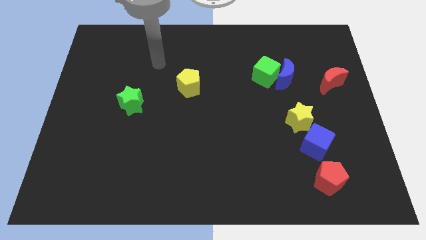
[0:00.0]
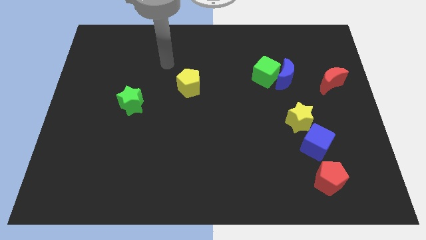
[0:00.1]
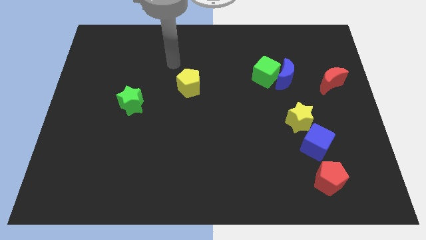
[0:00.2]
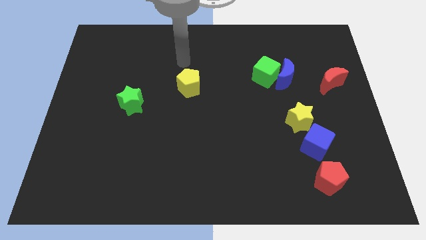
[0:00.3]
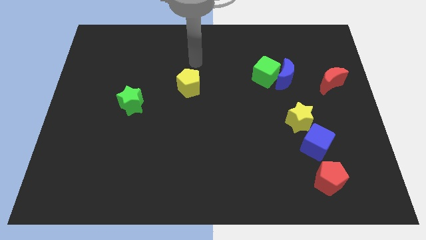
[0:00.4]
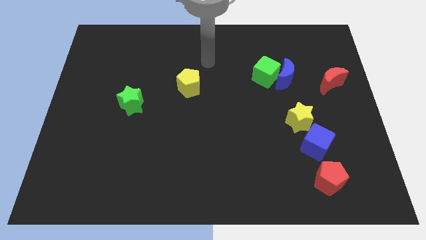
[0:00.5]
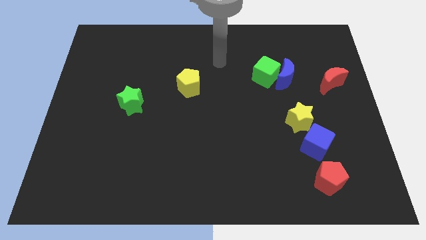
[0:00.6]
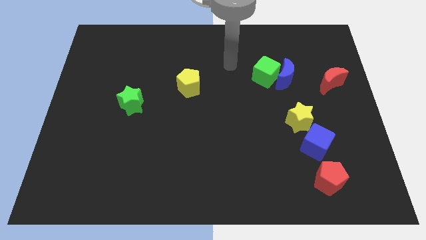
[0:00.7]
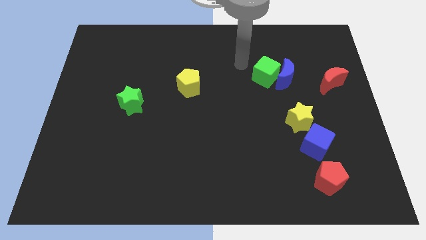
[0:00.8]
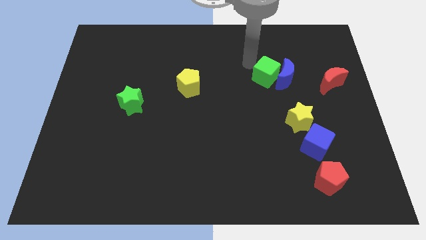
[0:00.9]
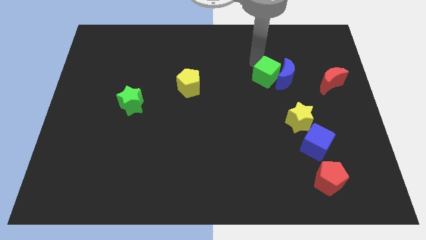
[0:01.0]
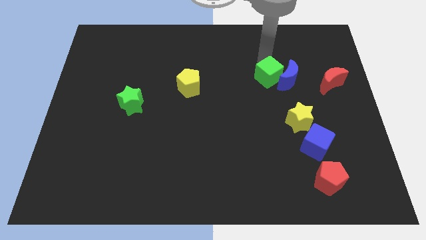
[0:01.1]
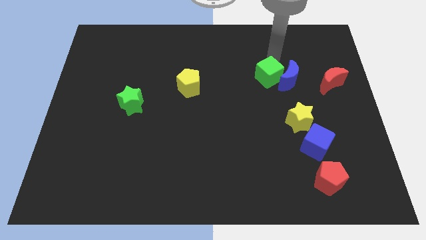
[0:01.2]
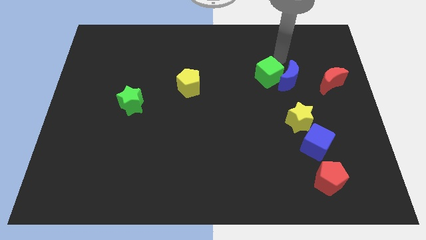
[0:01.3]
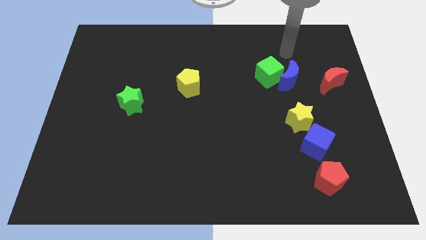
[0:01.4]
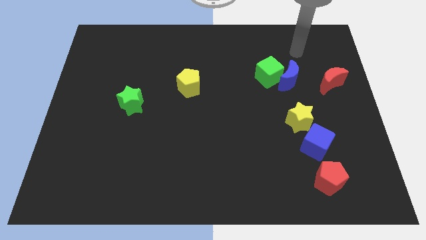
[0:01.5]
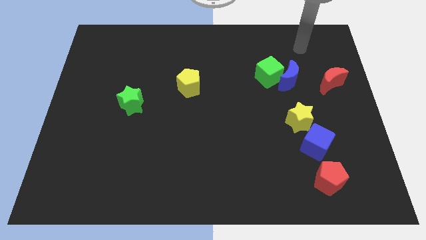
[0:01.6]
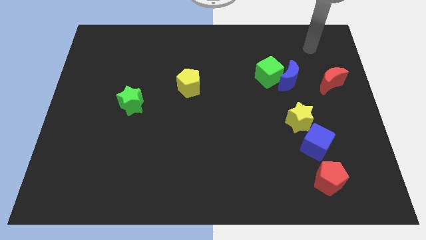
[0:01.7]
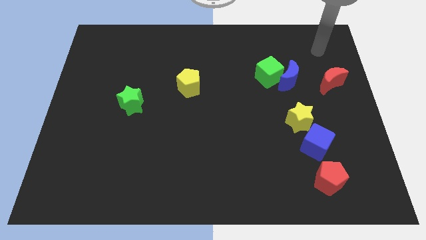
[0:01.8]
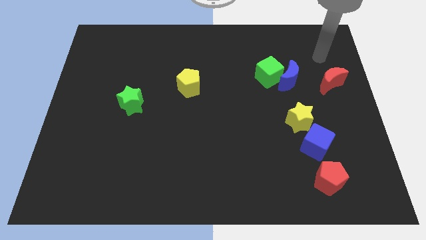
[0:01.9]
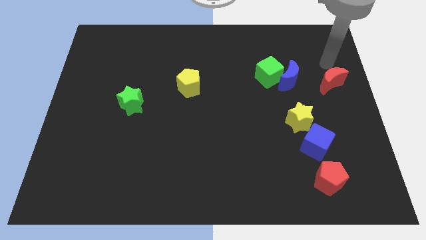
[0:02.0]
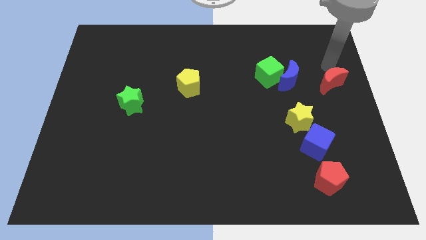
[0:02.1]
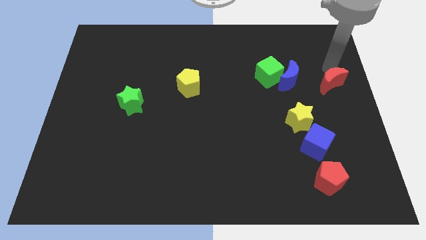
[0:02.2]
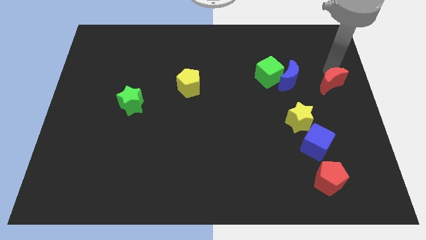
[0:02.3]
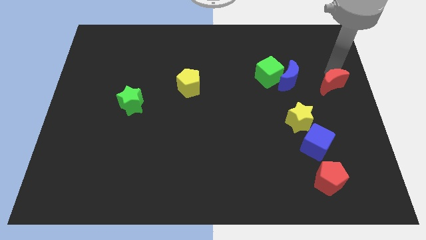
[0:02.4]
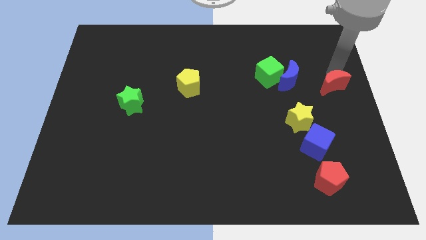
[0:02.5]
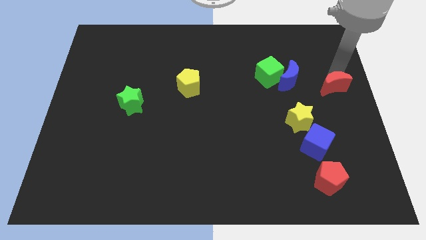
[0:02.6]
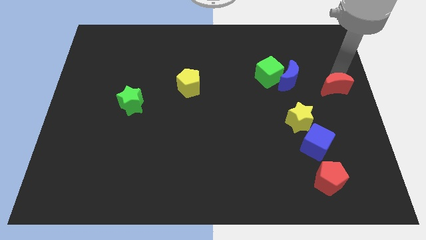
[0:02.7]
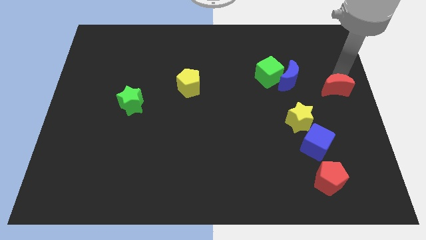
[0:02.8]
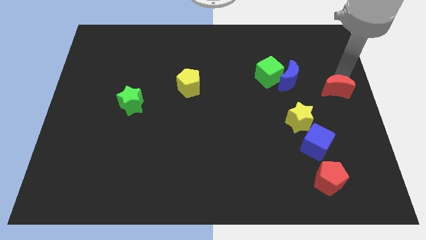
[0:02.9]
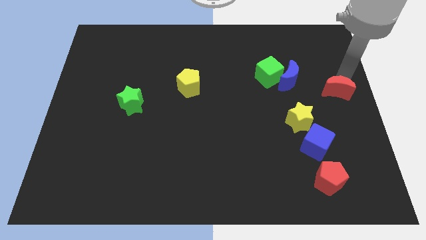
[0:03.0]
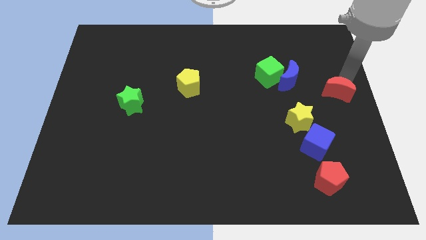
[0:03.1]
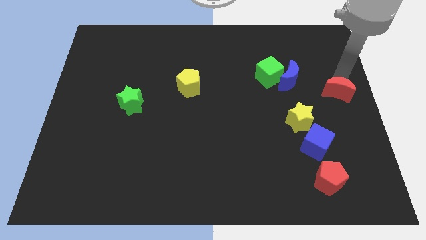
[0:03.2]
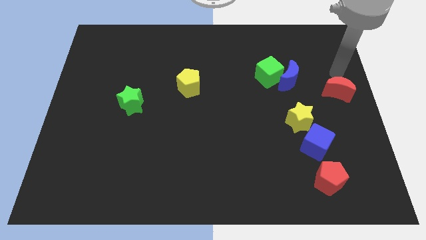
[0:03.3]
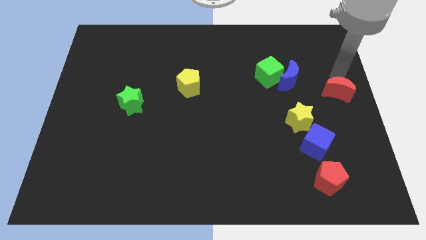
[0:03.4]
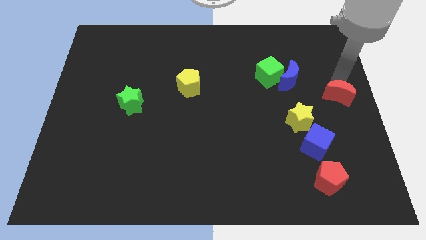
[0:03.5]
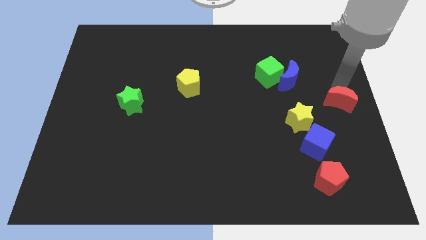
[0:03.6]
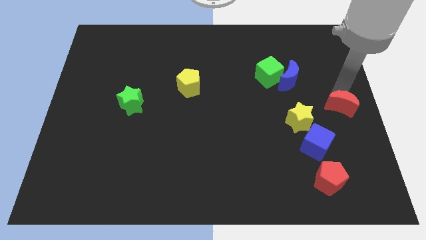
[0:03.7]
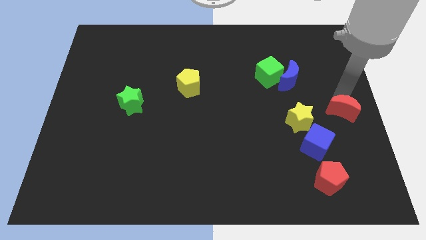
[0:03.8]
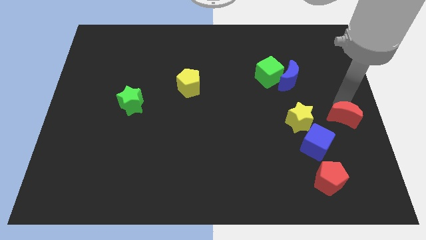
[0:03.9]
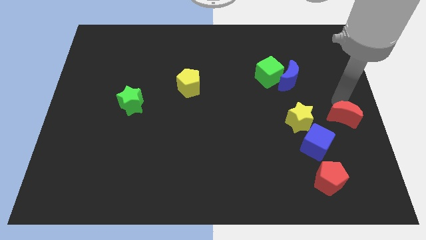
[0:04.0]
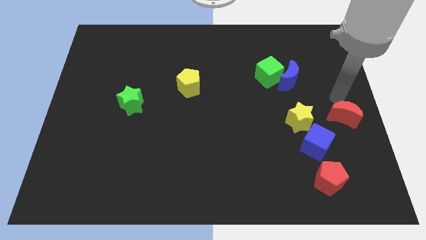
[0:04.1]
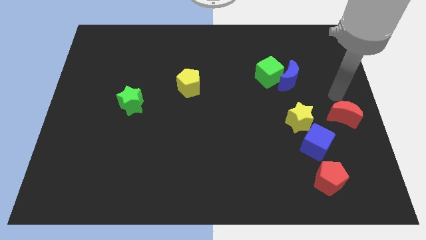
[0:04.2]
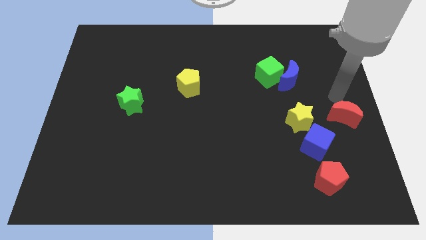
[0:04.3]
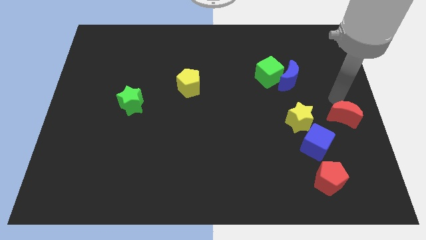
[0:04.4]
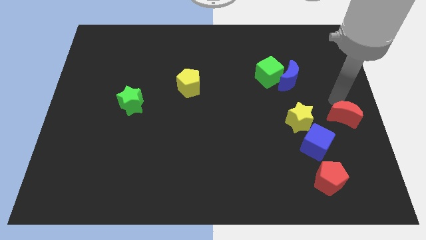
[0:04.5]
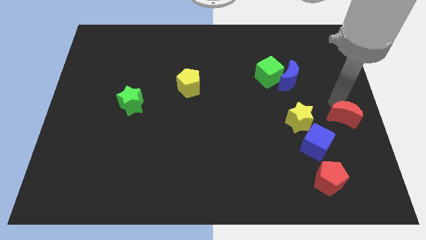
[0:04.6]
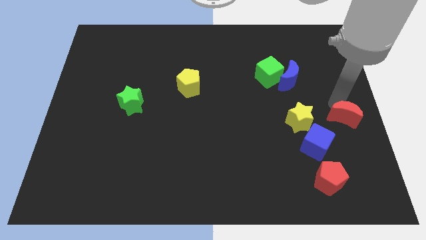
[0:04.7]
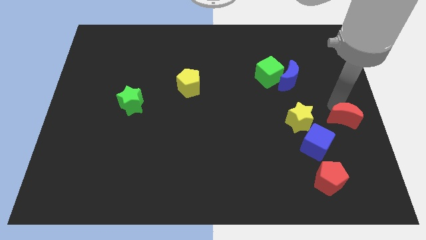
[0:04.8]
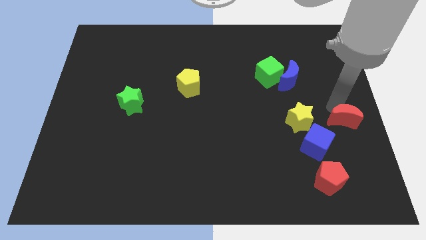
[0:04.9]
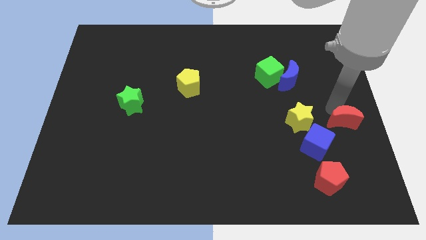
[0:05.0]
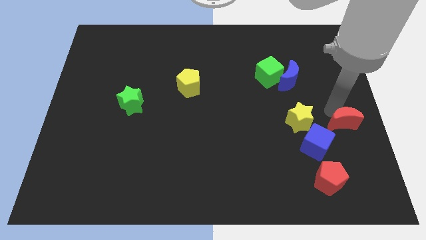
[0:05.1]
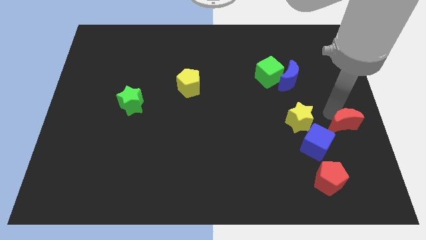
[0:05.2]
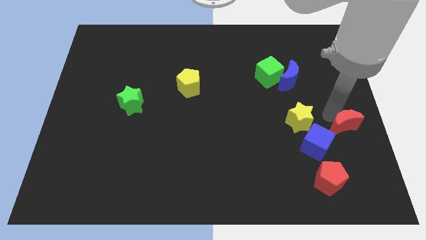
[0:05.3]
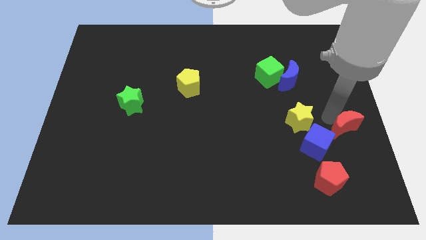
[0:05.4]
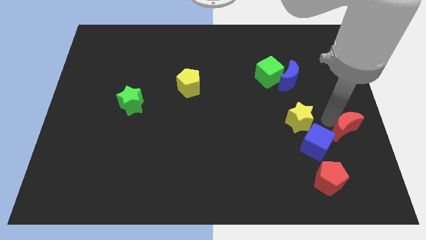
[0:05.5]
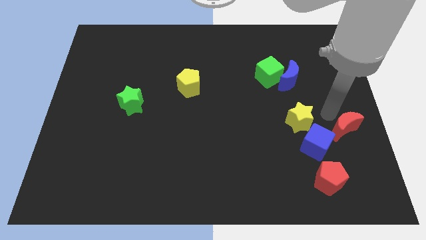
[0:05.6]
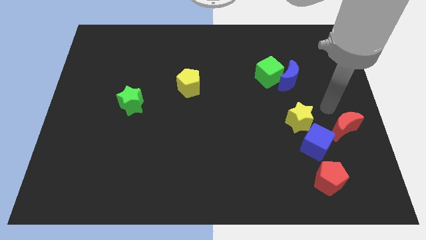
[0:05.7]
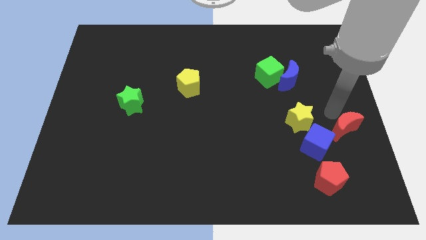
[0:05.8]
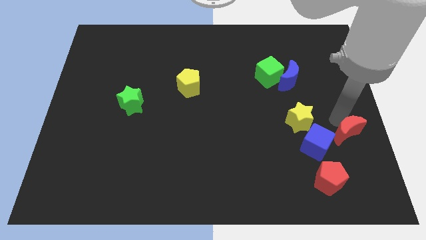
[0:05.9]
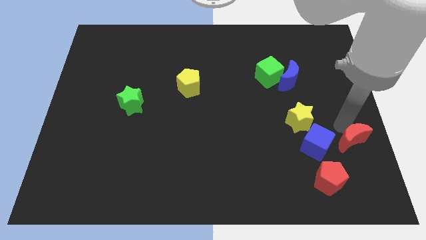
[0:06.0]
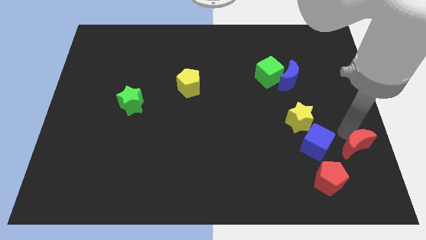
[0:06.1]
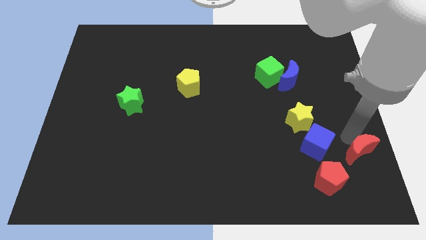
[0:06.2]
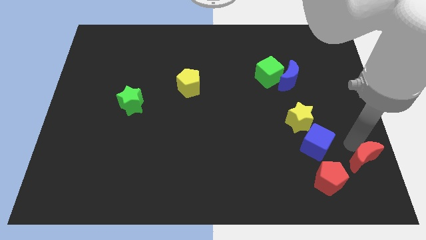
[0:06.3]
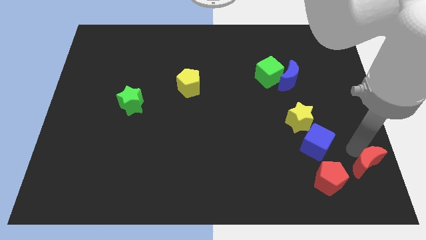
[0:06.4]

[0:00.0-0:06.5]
push the red moon to the bottom right corner
